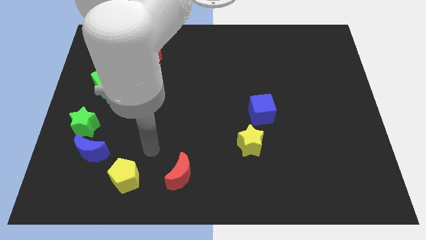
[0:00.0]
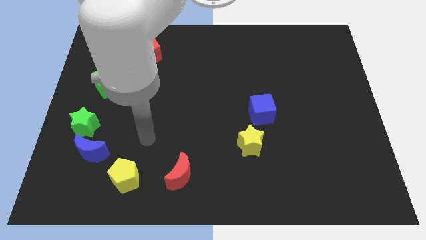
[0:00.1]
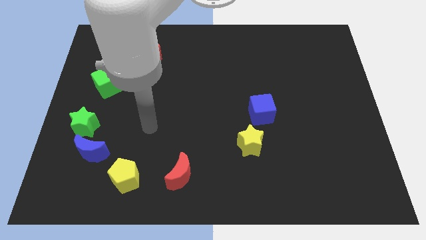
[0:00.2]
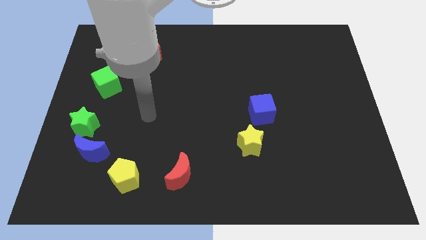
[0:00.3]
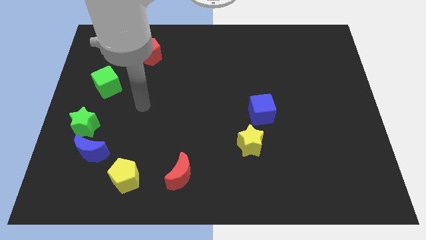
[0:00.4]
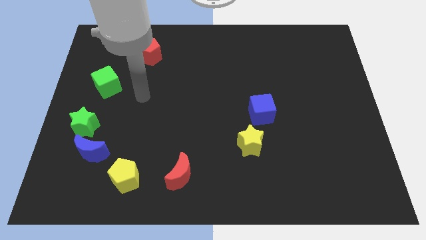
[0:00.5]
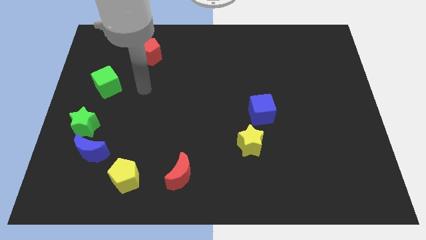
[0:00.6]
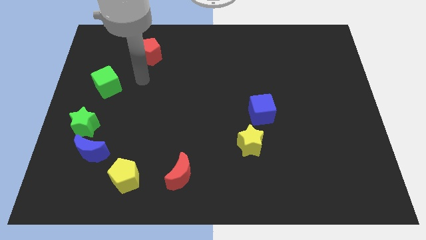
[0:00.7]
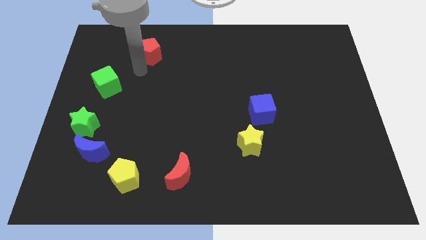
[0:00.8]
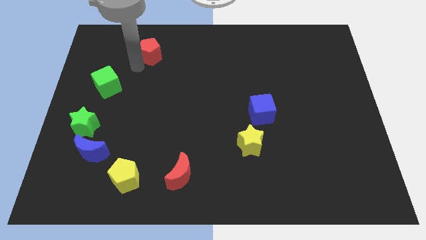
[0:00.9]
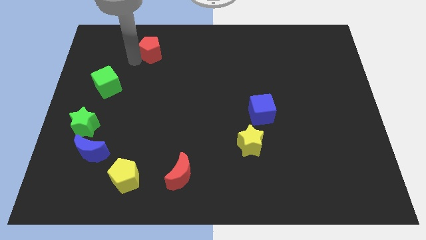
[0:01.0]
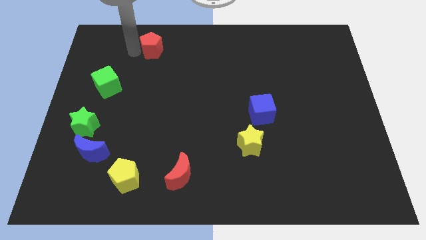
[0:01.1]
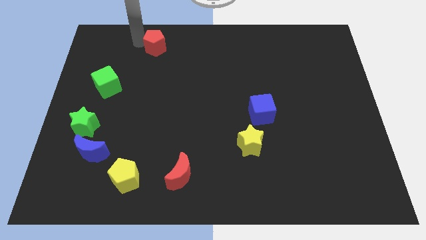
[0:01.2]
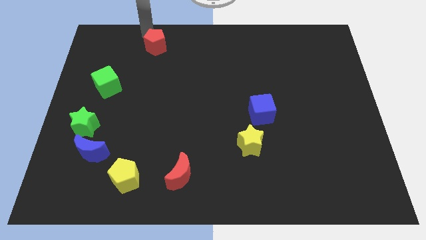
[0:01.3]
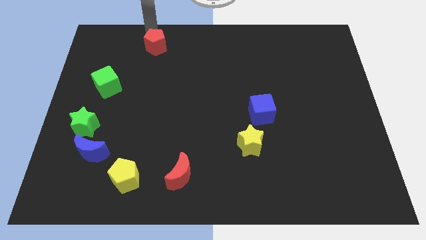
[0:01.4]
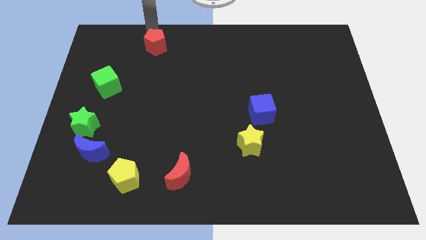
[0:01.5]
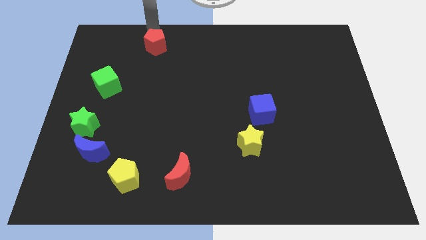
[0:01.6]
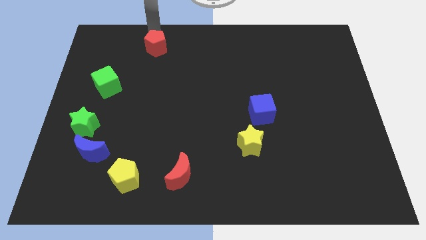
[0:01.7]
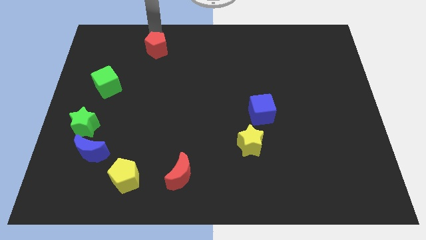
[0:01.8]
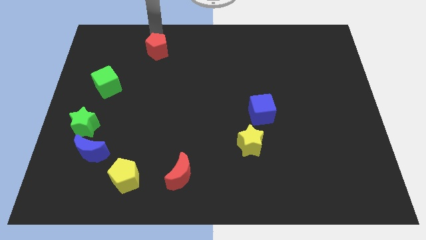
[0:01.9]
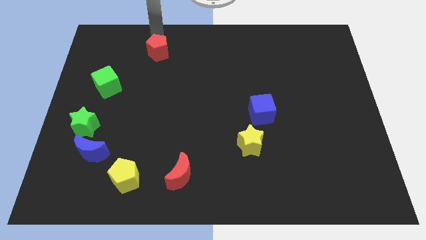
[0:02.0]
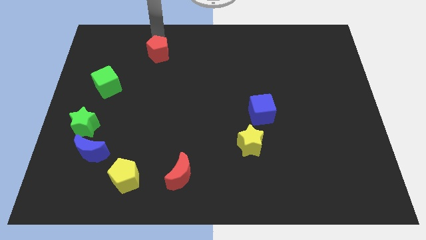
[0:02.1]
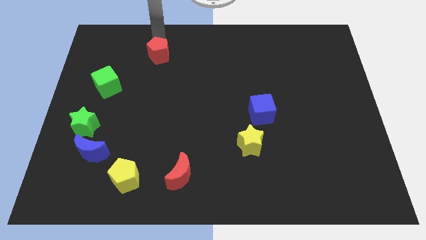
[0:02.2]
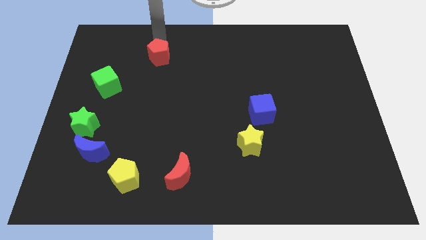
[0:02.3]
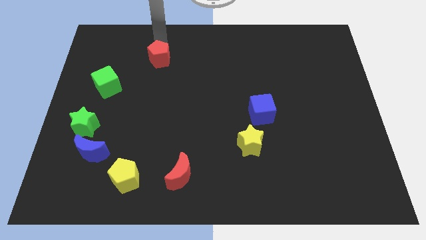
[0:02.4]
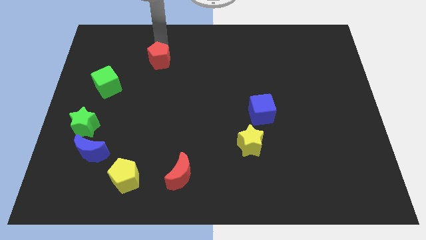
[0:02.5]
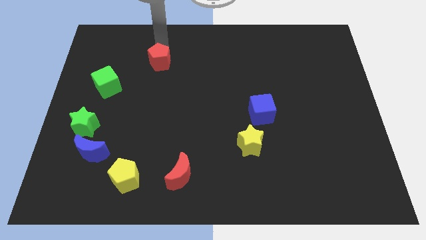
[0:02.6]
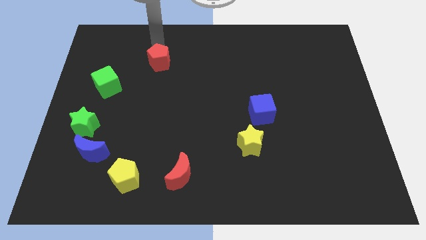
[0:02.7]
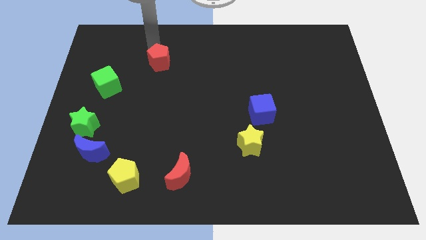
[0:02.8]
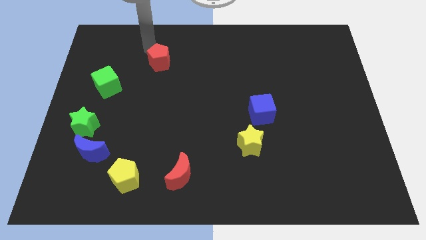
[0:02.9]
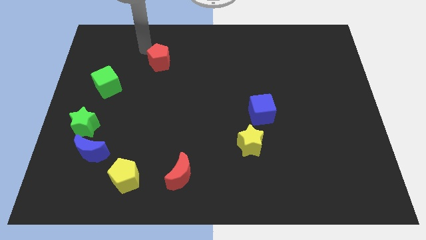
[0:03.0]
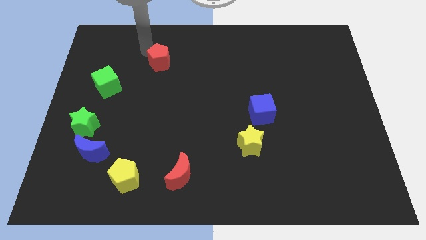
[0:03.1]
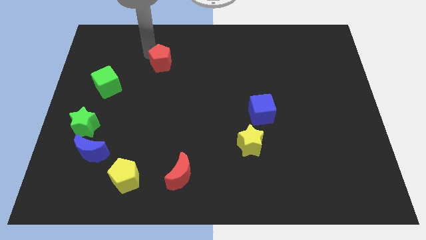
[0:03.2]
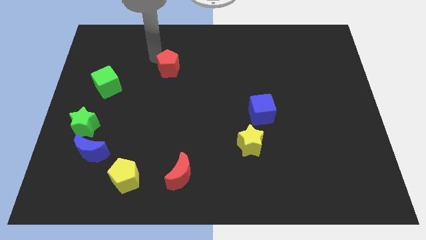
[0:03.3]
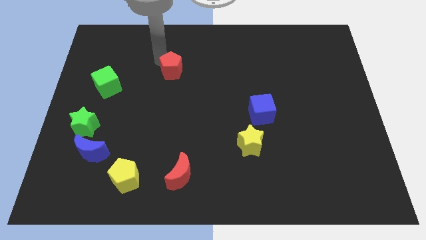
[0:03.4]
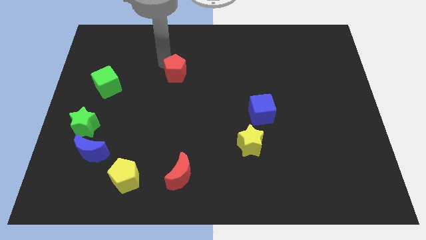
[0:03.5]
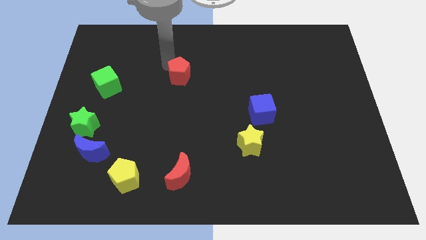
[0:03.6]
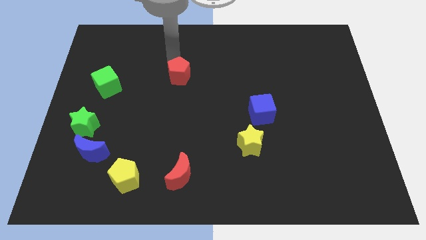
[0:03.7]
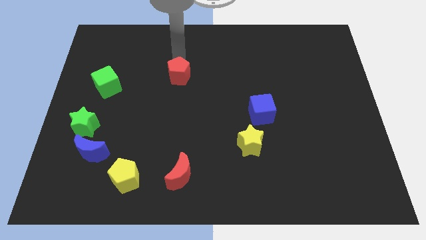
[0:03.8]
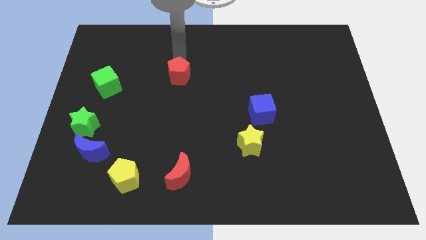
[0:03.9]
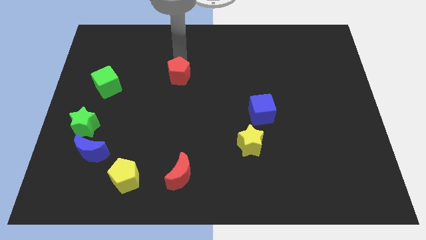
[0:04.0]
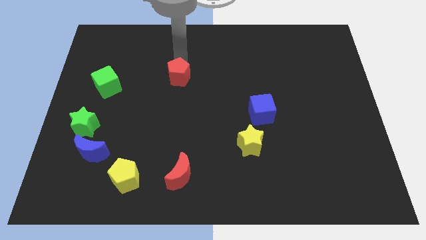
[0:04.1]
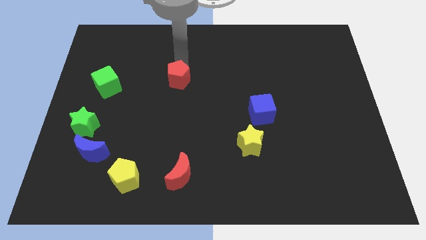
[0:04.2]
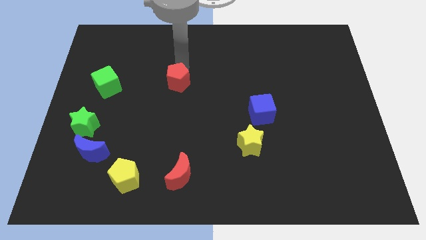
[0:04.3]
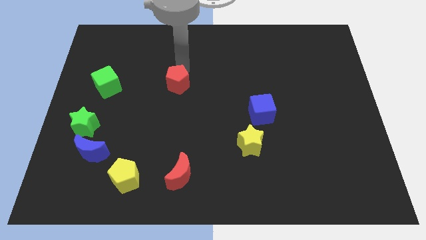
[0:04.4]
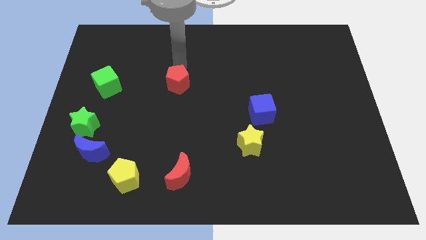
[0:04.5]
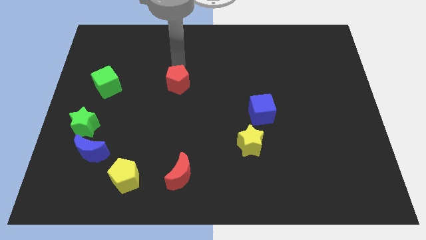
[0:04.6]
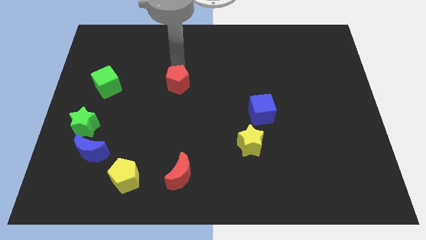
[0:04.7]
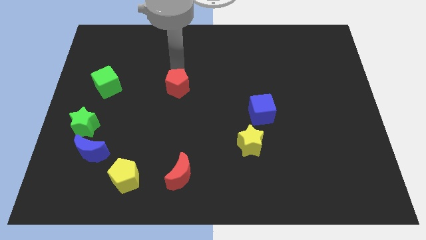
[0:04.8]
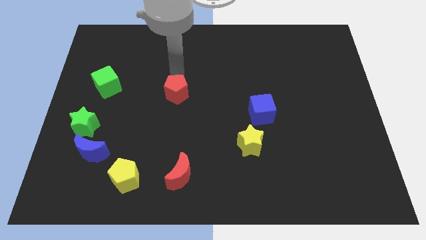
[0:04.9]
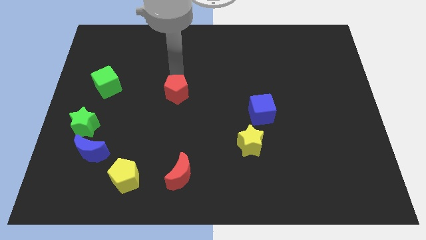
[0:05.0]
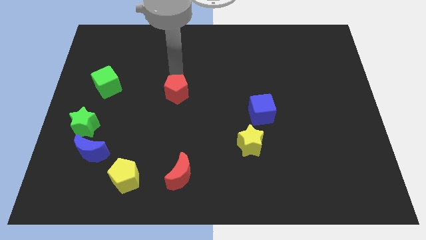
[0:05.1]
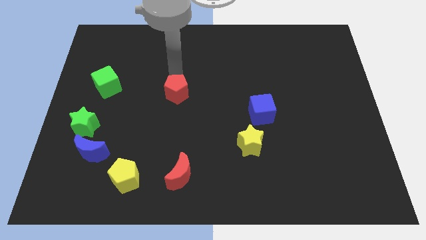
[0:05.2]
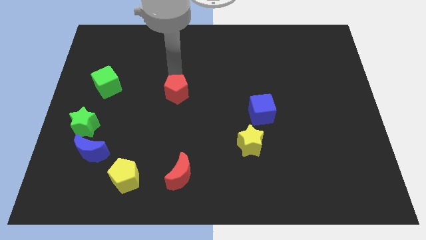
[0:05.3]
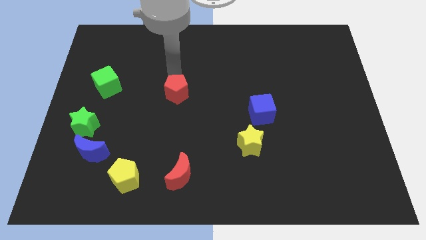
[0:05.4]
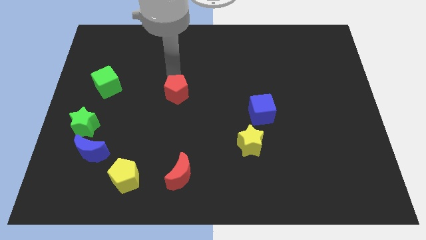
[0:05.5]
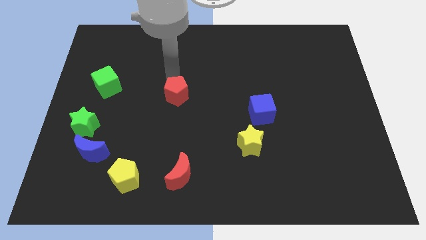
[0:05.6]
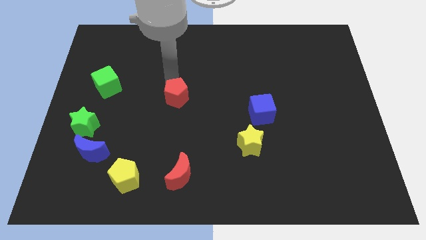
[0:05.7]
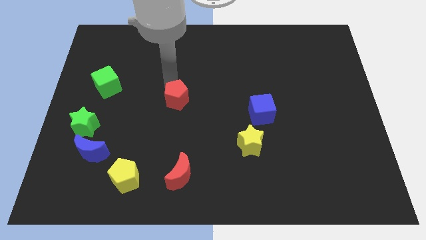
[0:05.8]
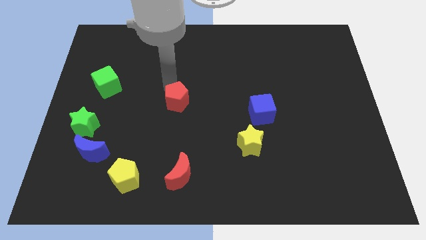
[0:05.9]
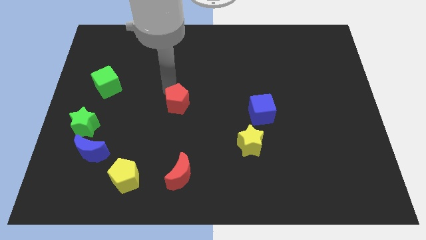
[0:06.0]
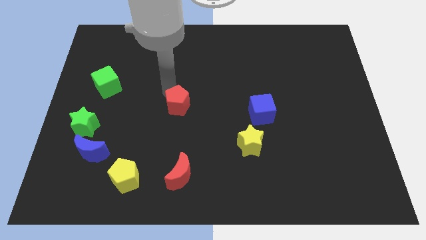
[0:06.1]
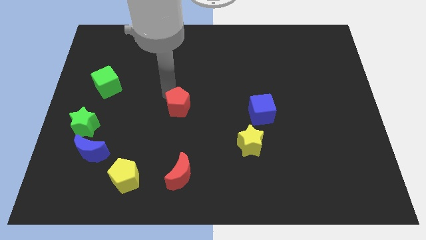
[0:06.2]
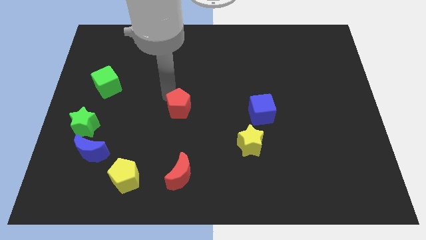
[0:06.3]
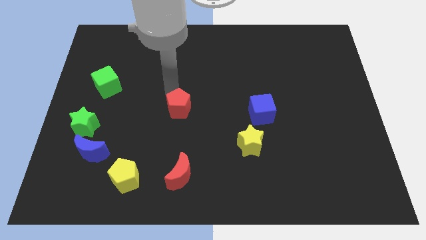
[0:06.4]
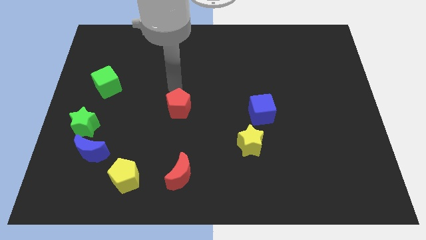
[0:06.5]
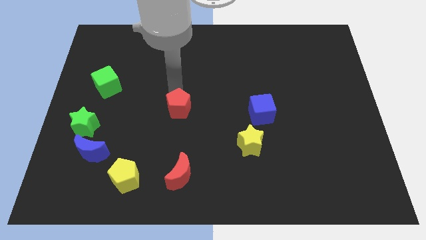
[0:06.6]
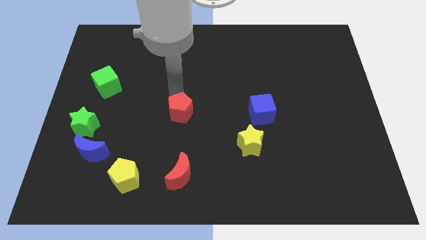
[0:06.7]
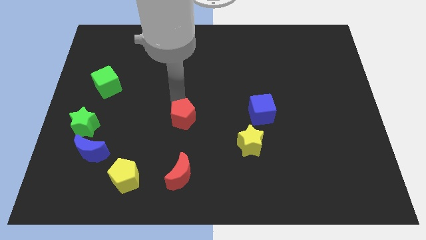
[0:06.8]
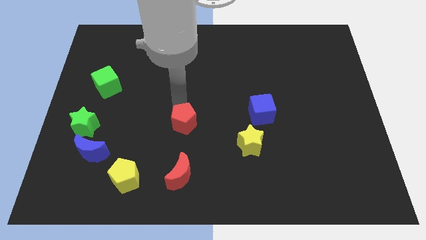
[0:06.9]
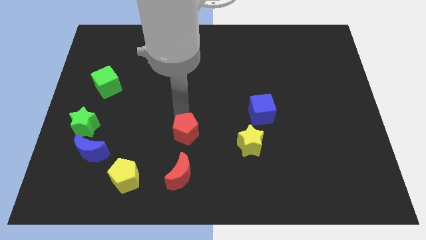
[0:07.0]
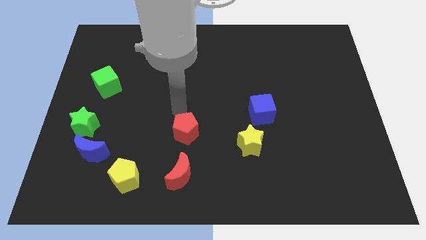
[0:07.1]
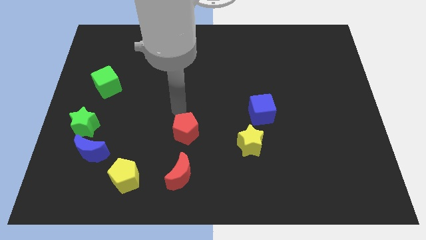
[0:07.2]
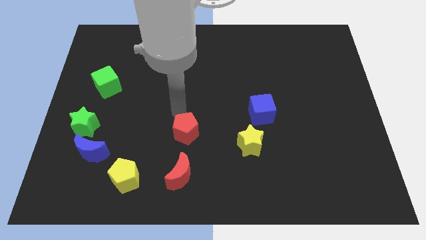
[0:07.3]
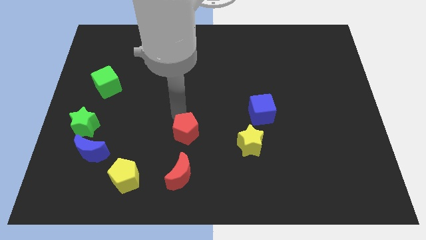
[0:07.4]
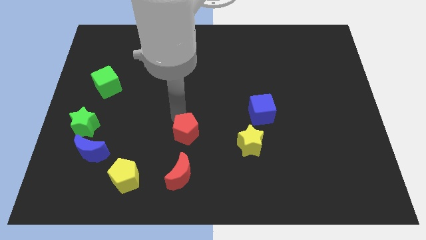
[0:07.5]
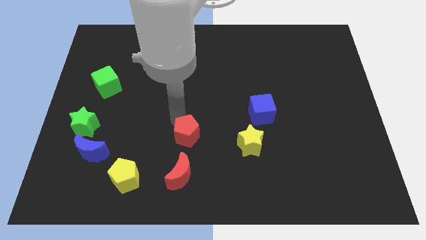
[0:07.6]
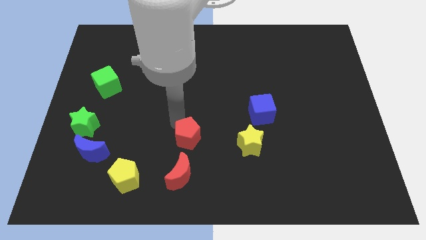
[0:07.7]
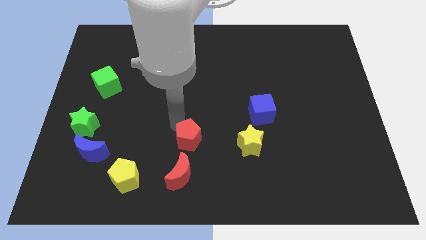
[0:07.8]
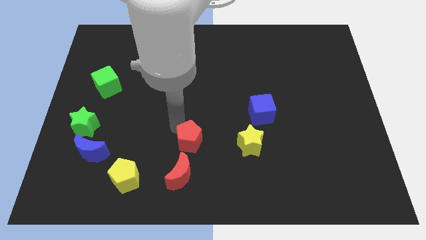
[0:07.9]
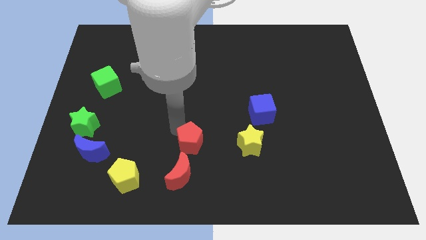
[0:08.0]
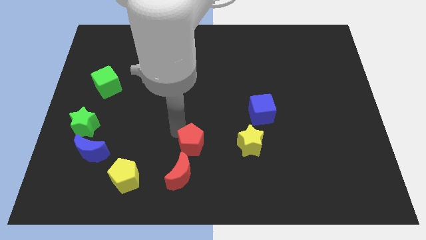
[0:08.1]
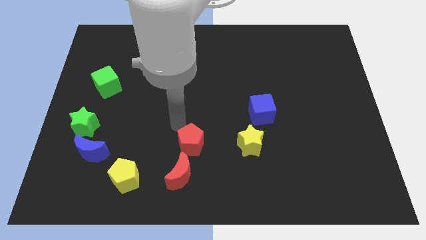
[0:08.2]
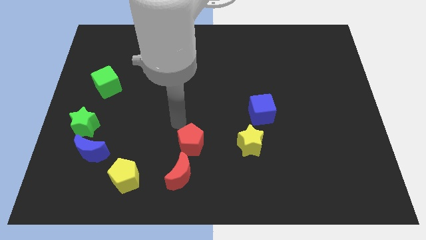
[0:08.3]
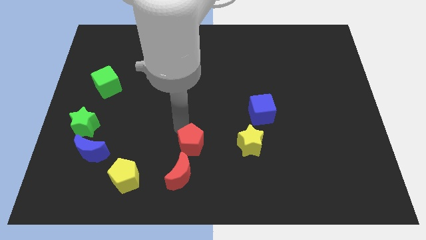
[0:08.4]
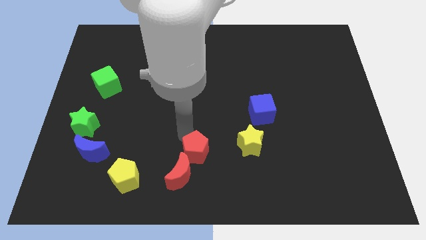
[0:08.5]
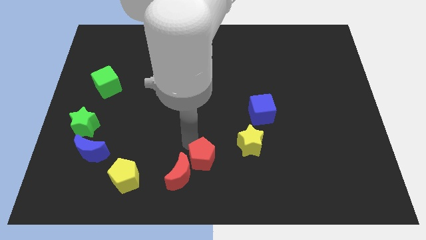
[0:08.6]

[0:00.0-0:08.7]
push the red pentagon to the bottom
